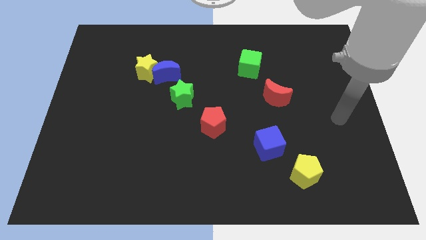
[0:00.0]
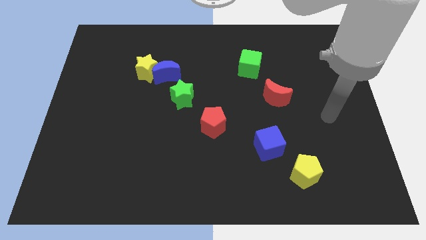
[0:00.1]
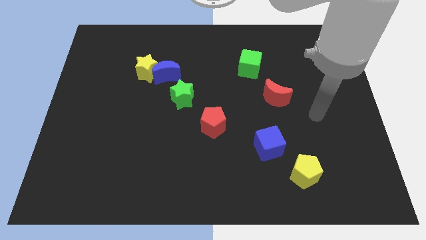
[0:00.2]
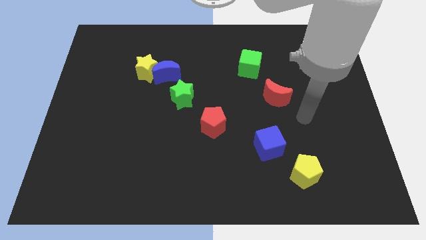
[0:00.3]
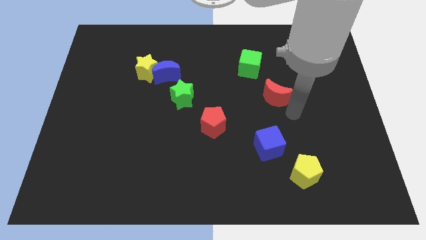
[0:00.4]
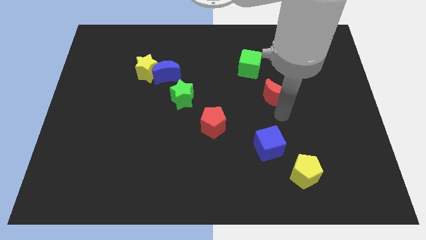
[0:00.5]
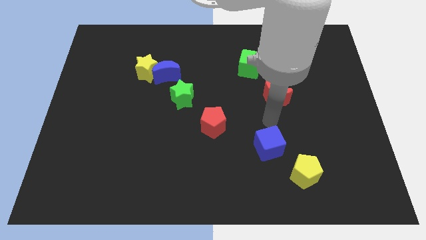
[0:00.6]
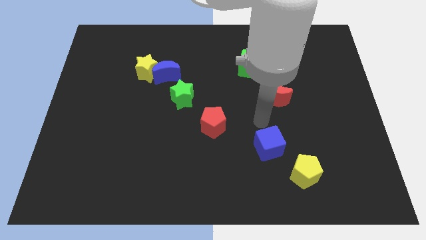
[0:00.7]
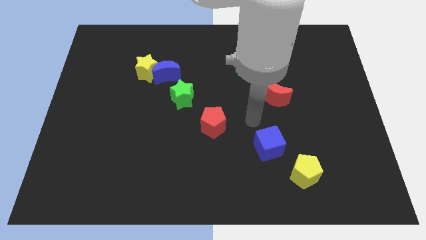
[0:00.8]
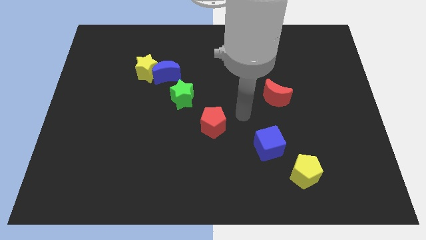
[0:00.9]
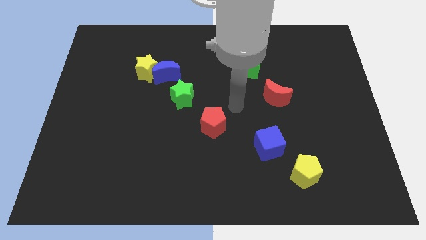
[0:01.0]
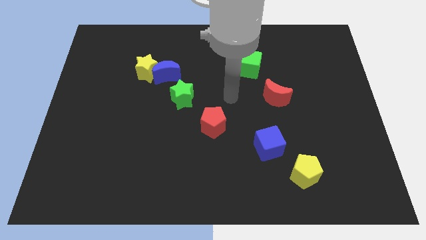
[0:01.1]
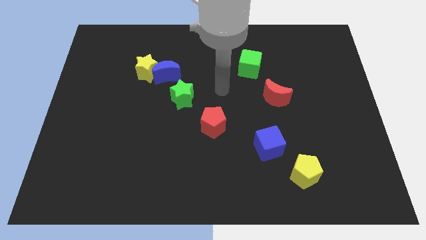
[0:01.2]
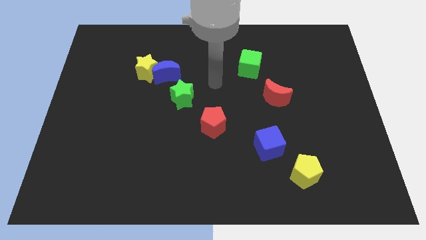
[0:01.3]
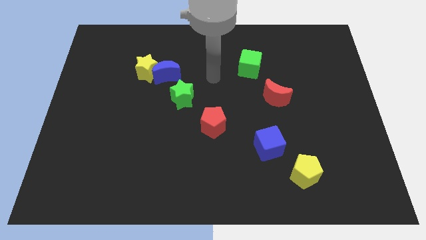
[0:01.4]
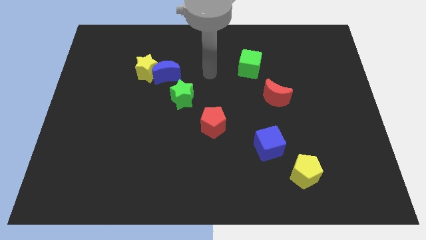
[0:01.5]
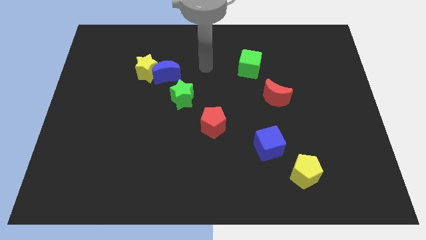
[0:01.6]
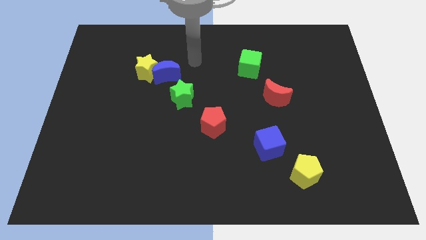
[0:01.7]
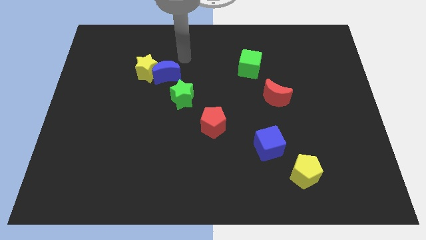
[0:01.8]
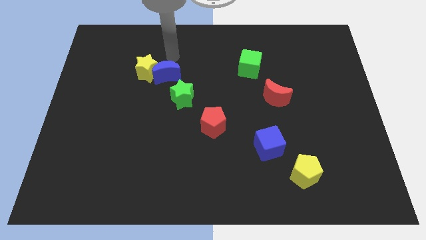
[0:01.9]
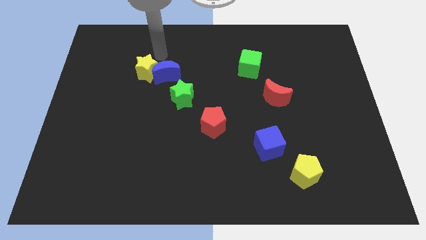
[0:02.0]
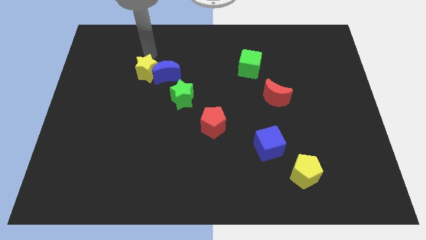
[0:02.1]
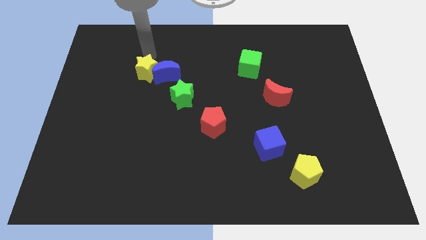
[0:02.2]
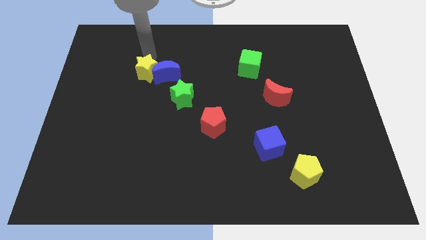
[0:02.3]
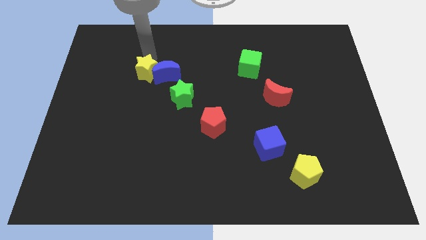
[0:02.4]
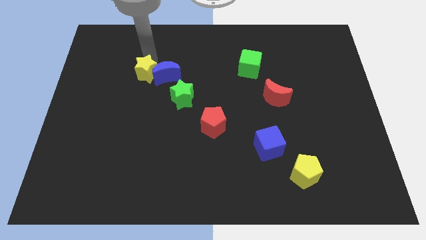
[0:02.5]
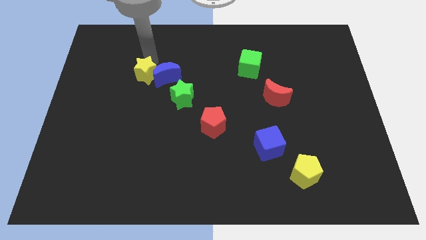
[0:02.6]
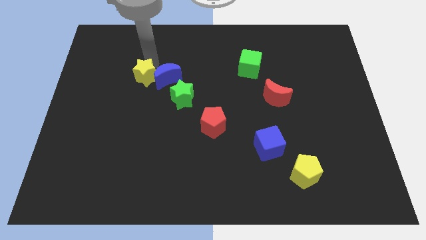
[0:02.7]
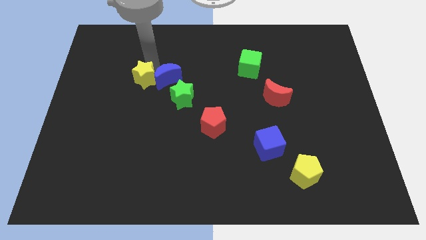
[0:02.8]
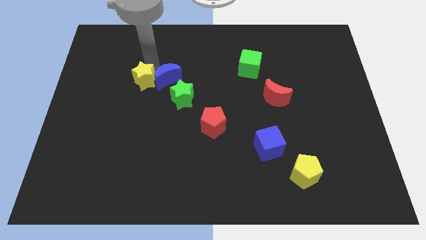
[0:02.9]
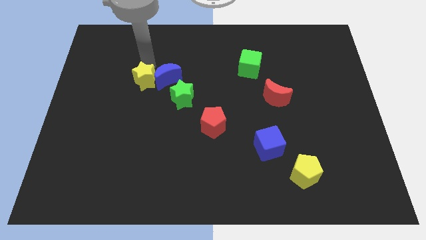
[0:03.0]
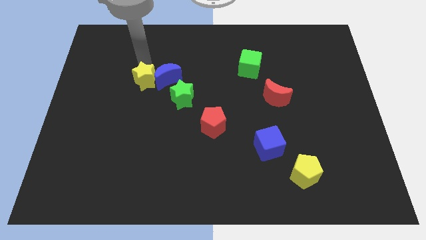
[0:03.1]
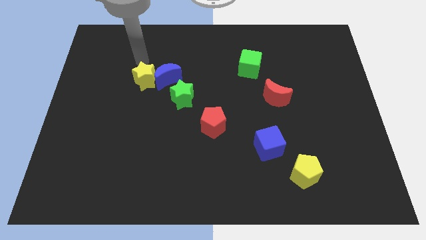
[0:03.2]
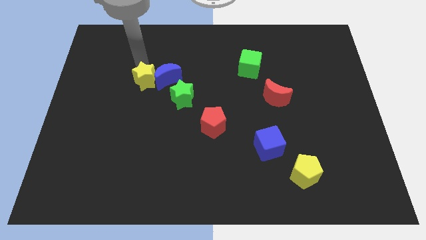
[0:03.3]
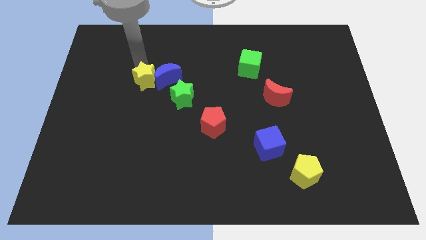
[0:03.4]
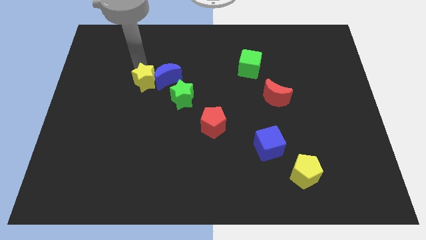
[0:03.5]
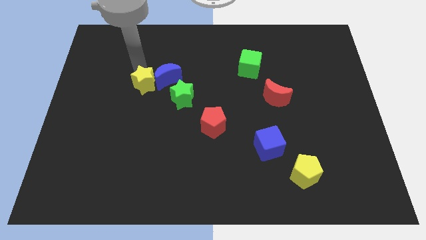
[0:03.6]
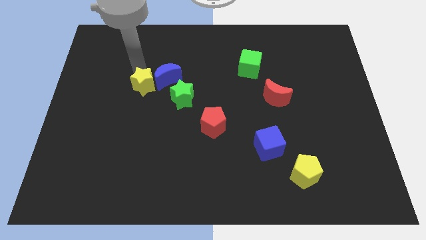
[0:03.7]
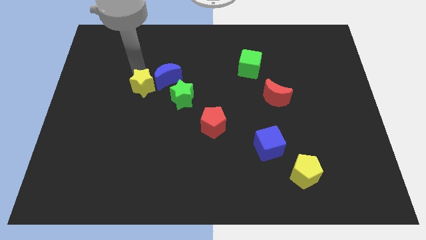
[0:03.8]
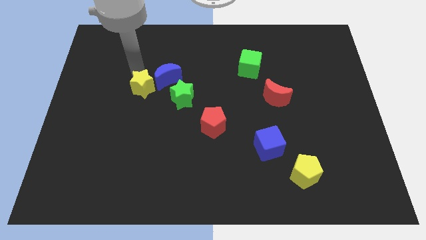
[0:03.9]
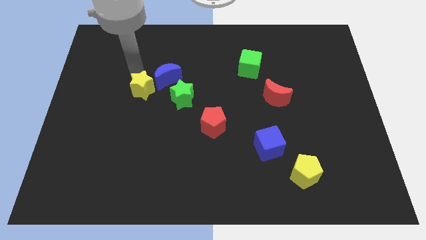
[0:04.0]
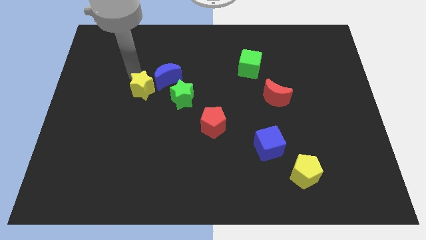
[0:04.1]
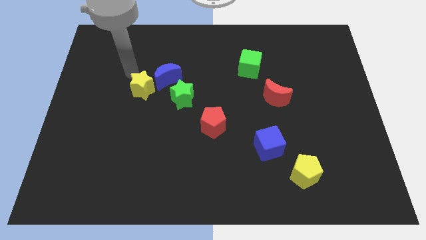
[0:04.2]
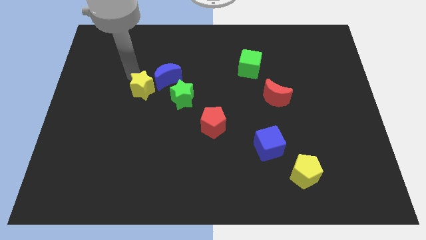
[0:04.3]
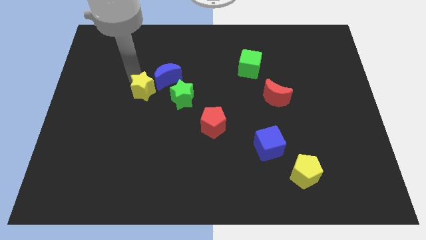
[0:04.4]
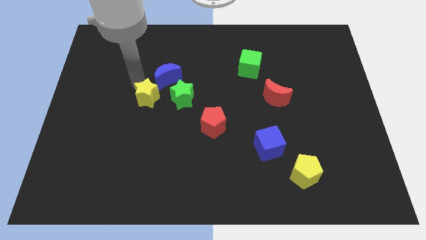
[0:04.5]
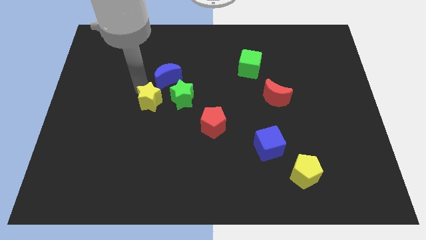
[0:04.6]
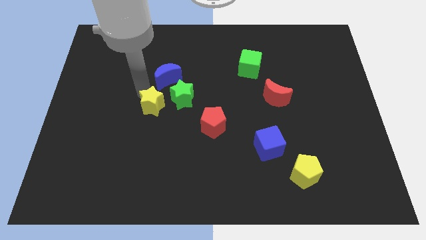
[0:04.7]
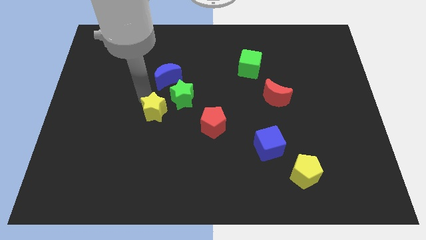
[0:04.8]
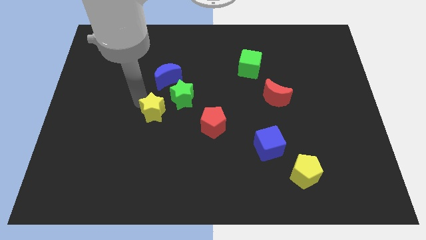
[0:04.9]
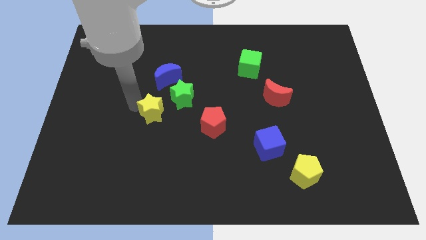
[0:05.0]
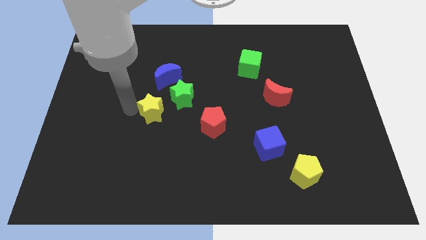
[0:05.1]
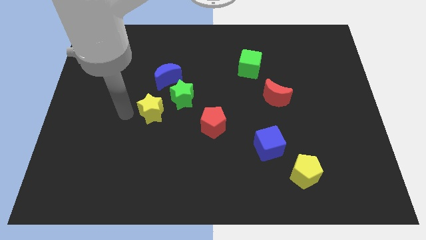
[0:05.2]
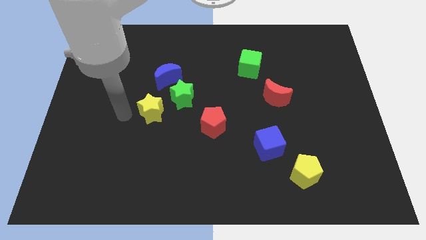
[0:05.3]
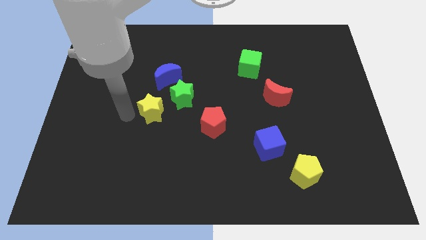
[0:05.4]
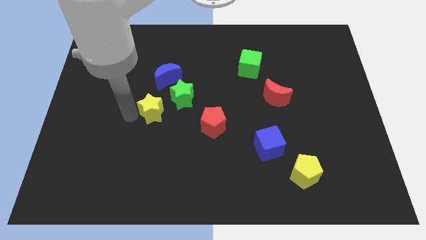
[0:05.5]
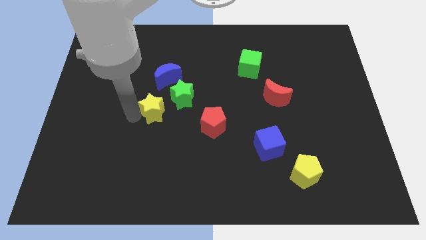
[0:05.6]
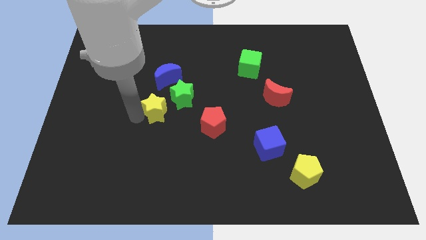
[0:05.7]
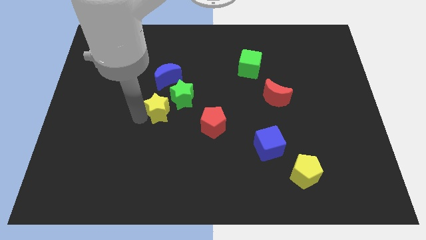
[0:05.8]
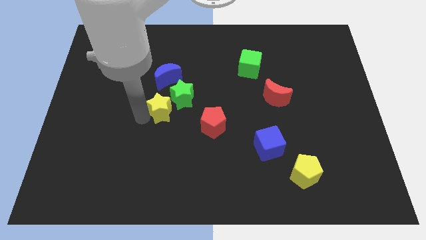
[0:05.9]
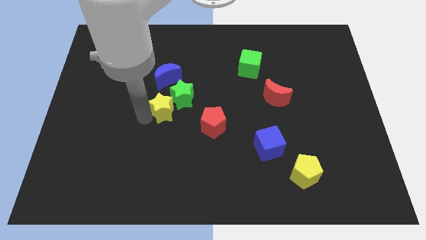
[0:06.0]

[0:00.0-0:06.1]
move the yellow star to the center of the board
